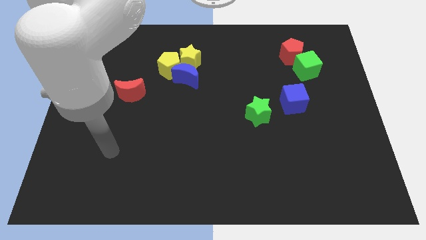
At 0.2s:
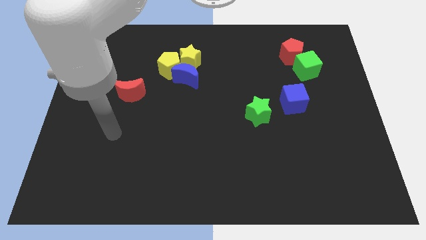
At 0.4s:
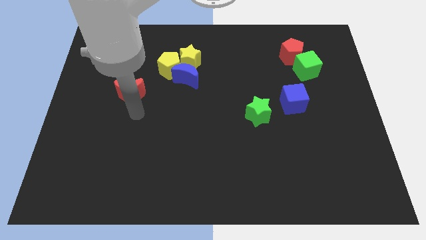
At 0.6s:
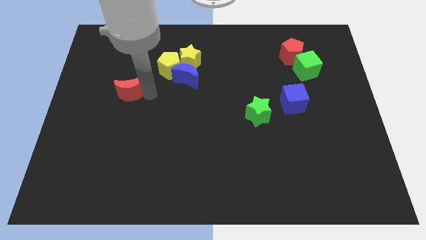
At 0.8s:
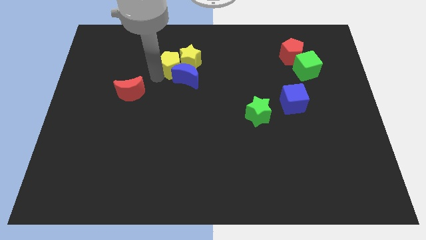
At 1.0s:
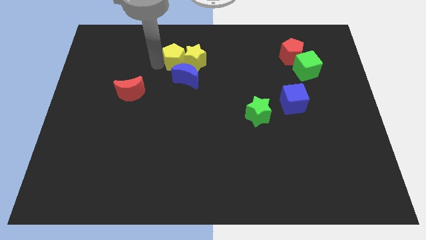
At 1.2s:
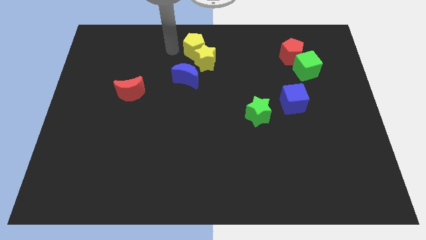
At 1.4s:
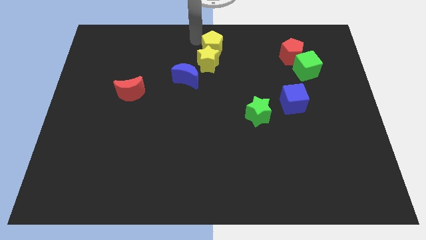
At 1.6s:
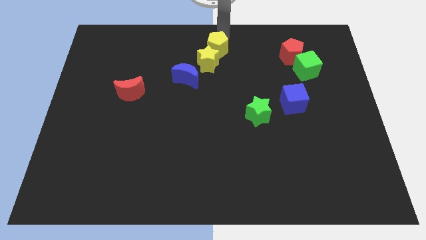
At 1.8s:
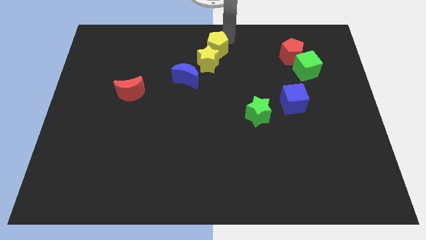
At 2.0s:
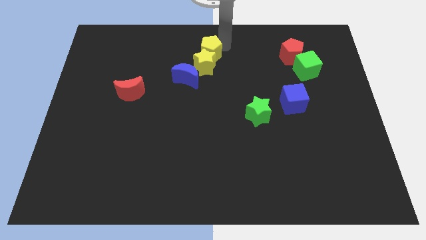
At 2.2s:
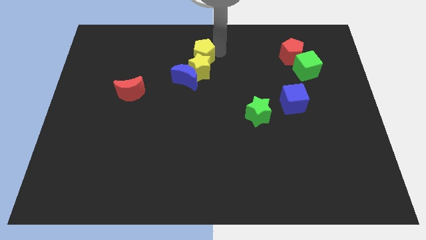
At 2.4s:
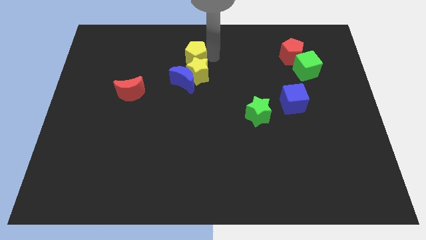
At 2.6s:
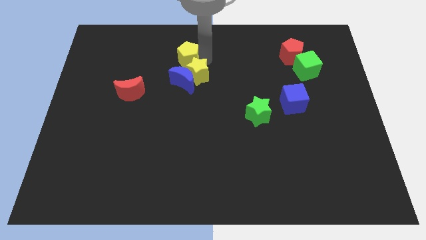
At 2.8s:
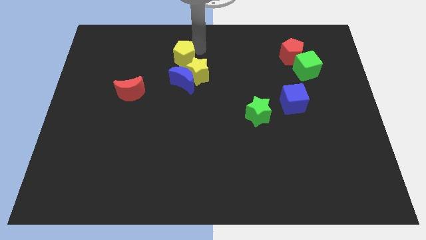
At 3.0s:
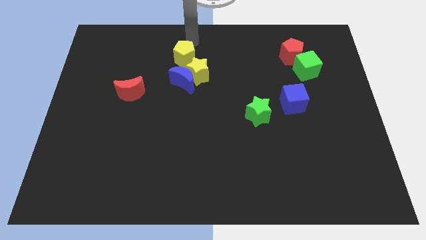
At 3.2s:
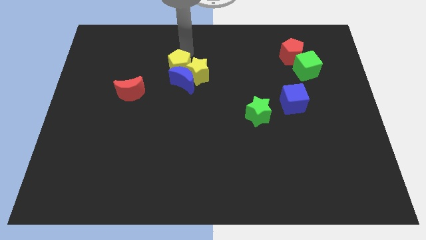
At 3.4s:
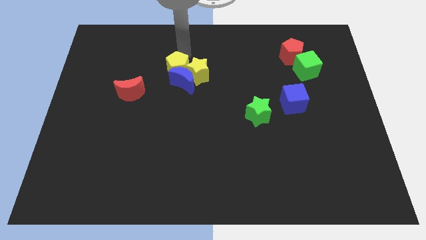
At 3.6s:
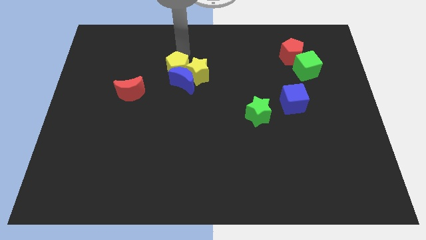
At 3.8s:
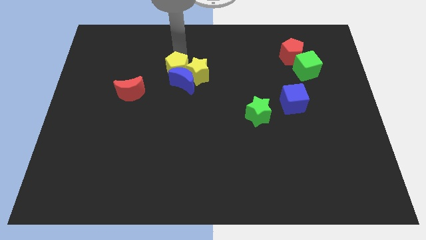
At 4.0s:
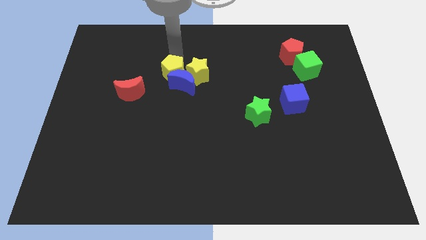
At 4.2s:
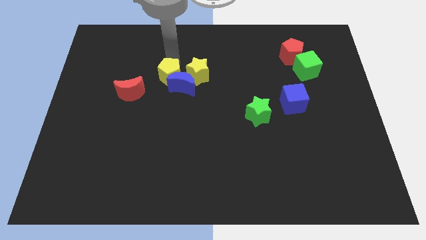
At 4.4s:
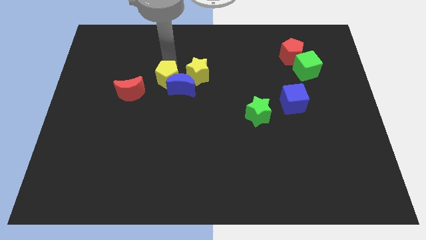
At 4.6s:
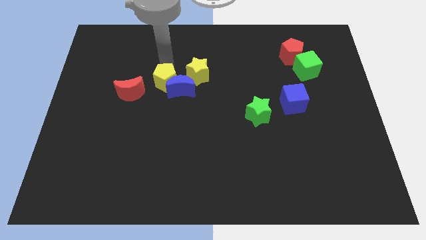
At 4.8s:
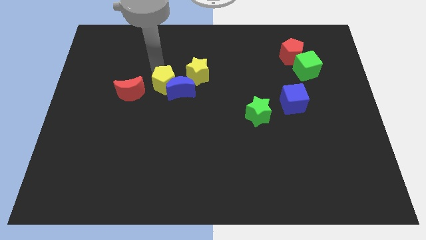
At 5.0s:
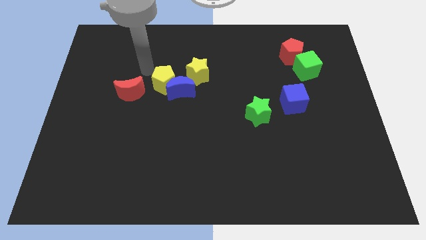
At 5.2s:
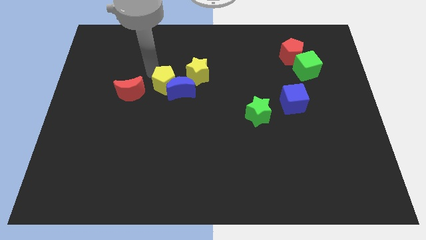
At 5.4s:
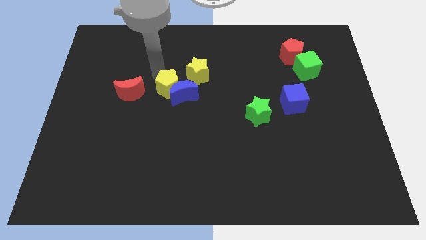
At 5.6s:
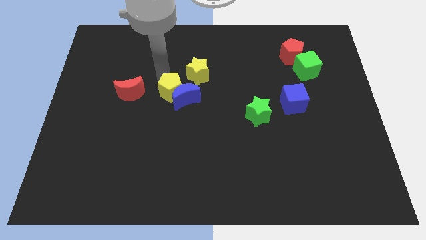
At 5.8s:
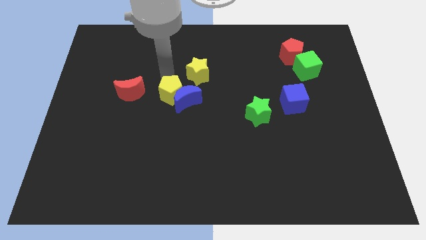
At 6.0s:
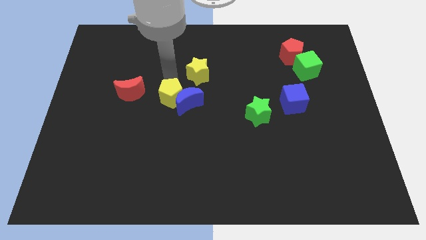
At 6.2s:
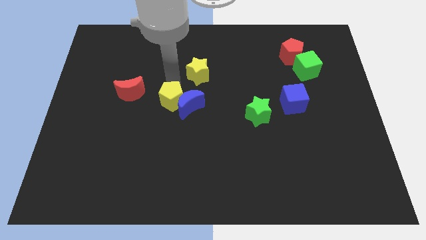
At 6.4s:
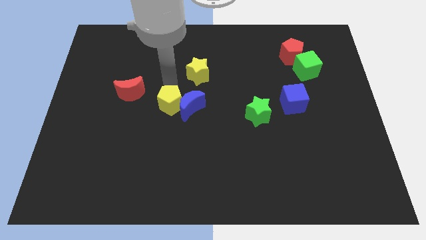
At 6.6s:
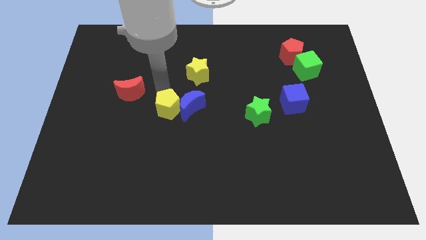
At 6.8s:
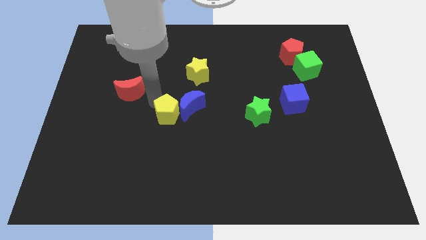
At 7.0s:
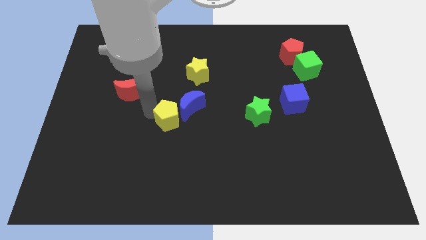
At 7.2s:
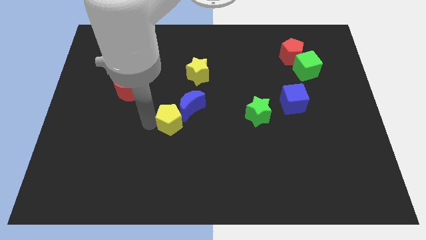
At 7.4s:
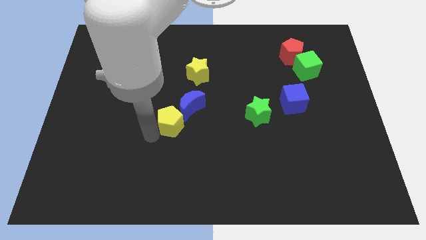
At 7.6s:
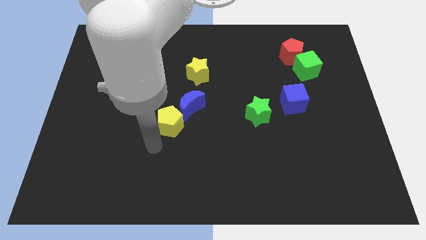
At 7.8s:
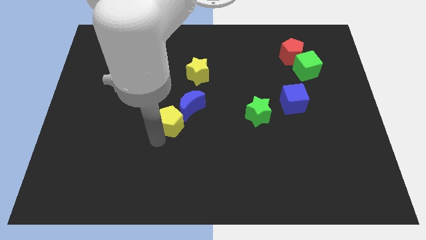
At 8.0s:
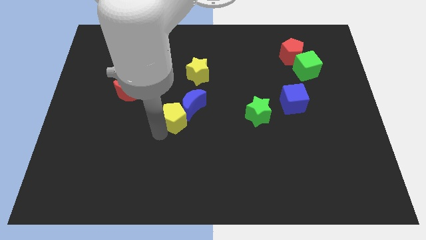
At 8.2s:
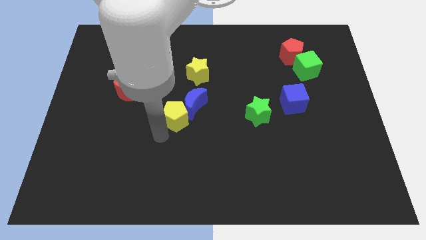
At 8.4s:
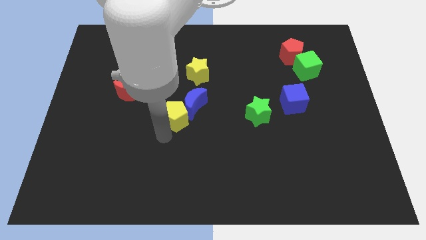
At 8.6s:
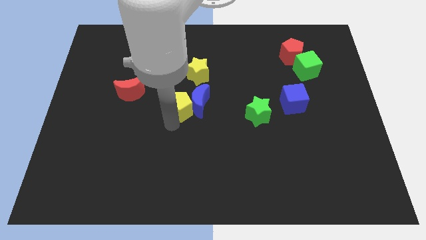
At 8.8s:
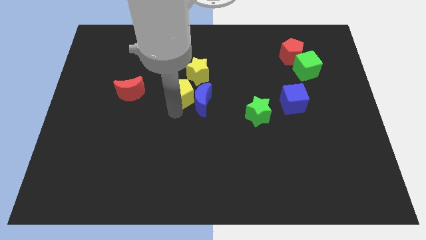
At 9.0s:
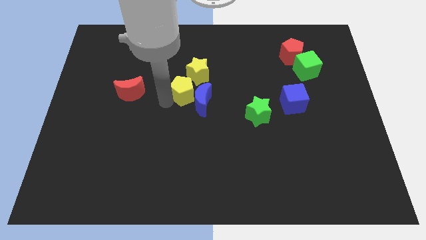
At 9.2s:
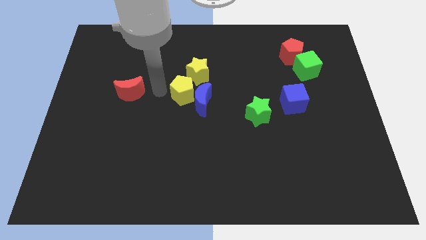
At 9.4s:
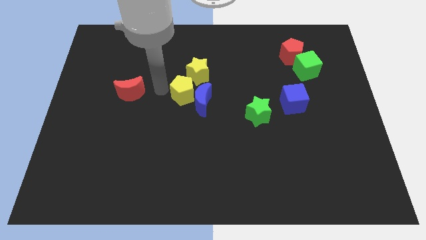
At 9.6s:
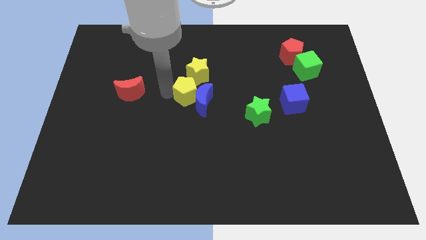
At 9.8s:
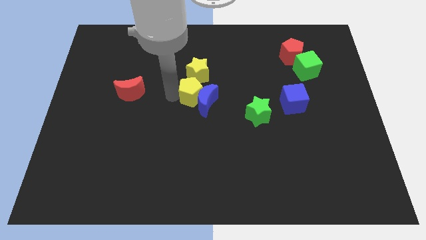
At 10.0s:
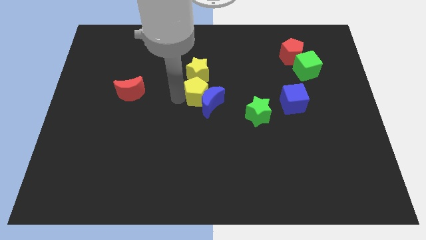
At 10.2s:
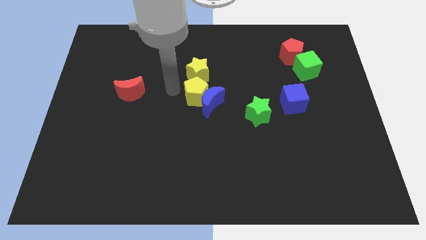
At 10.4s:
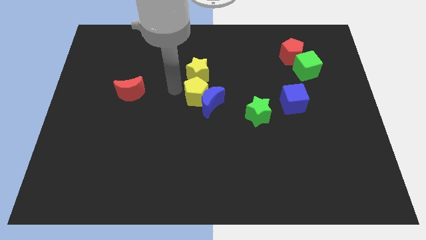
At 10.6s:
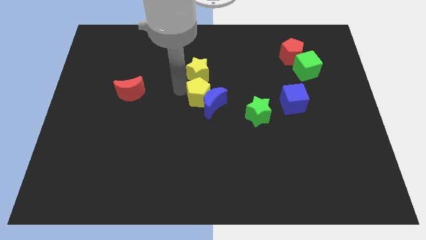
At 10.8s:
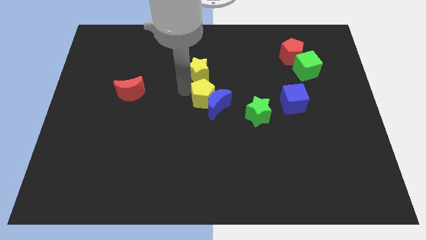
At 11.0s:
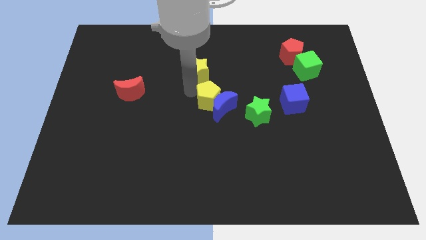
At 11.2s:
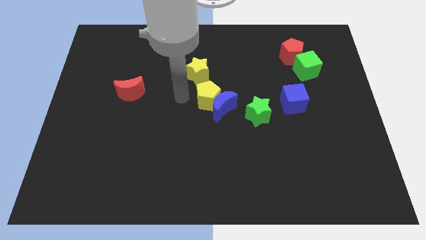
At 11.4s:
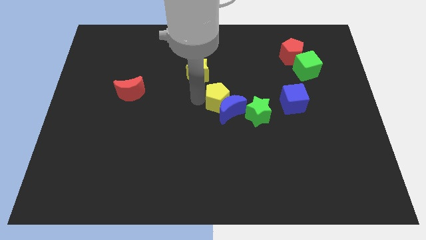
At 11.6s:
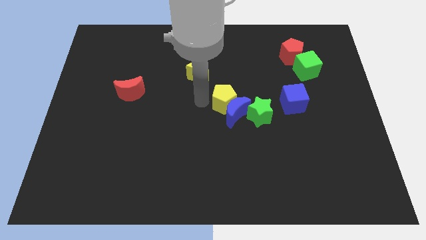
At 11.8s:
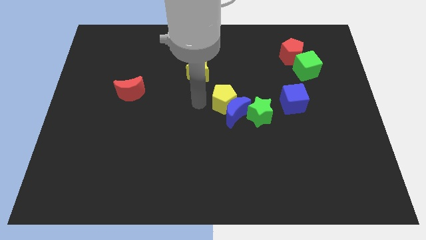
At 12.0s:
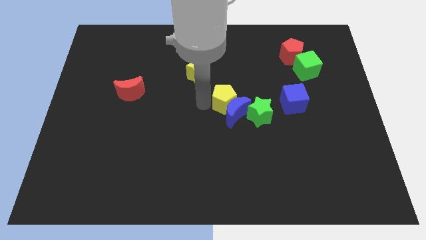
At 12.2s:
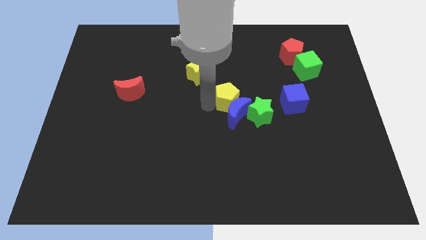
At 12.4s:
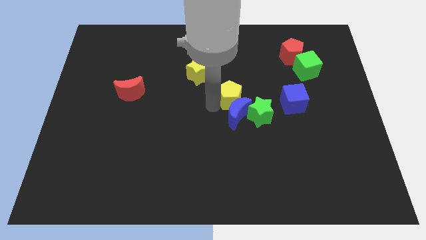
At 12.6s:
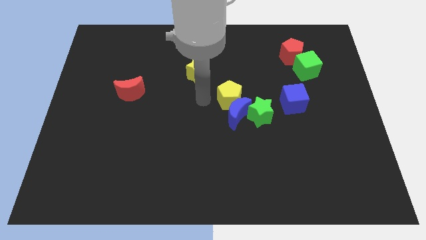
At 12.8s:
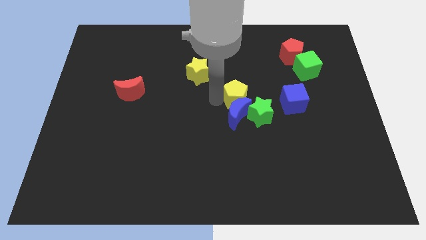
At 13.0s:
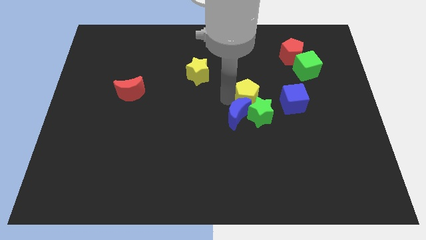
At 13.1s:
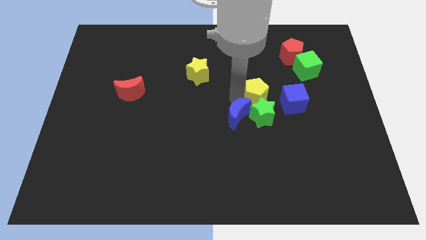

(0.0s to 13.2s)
put the yellow pentagon diagonally up and to the right of the green star
